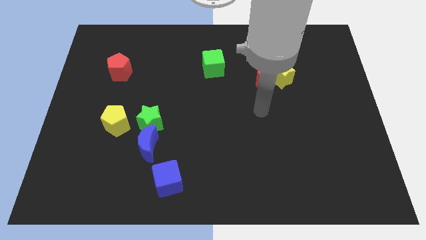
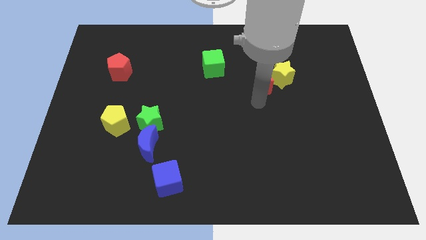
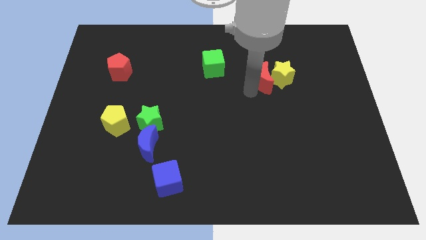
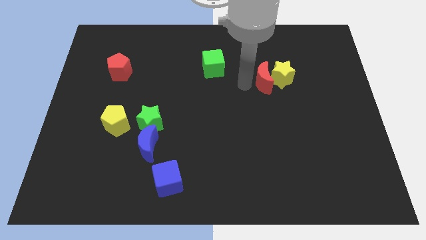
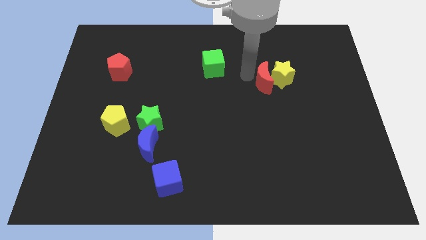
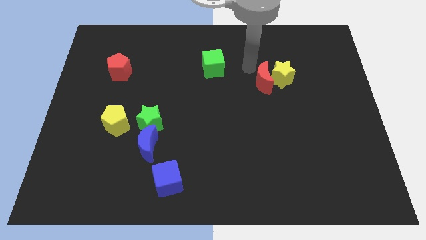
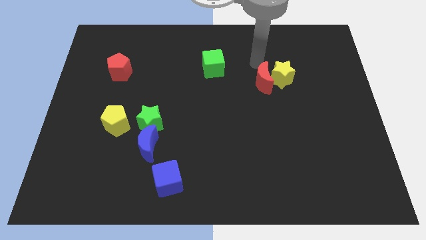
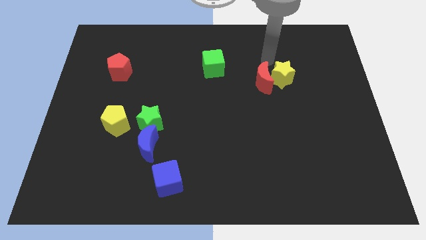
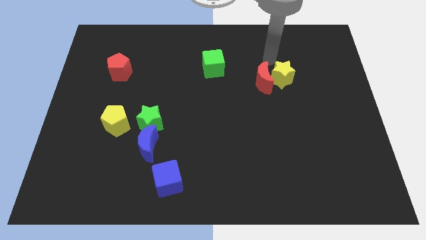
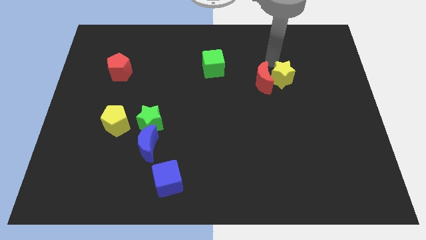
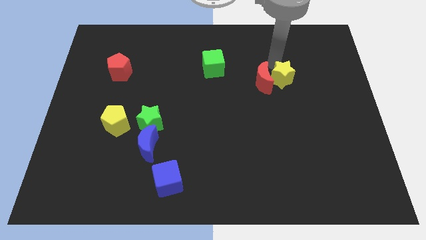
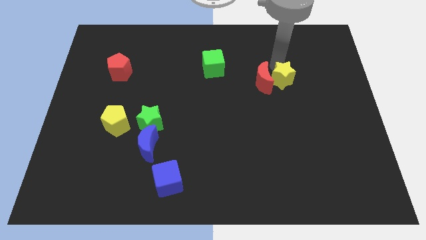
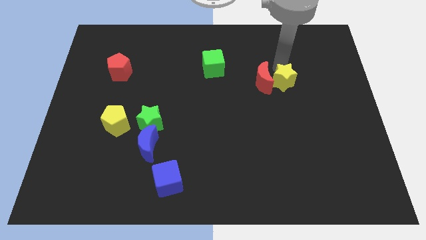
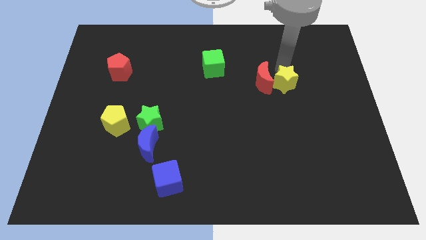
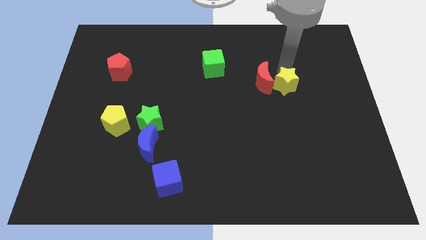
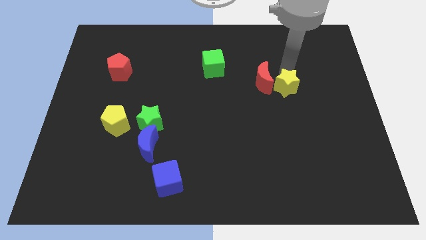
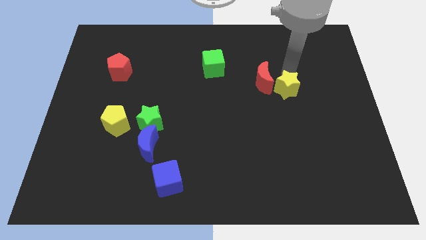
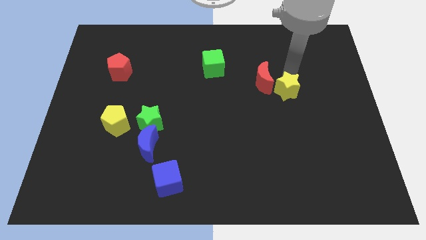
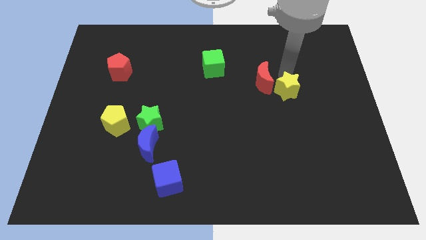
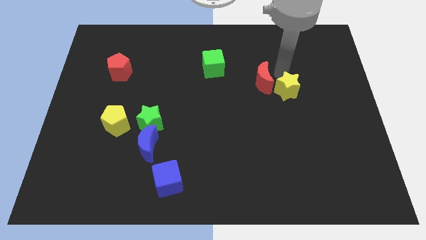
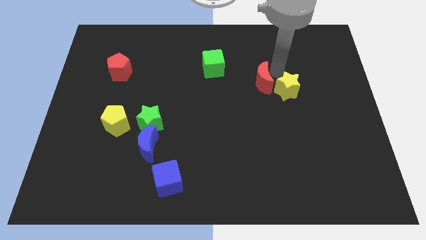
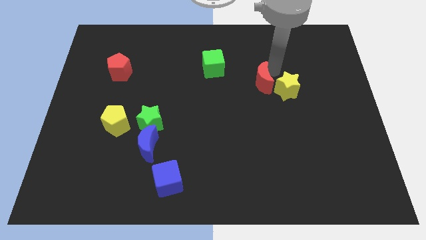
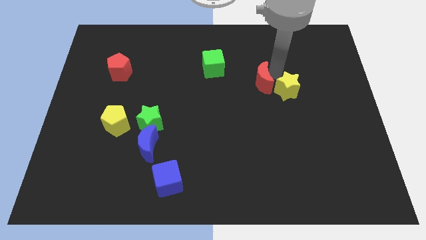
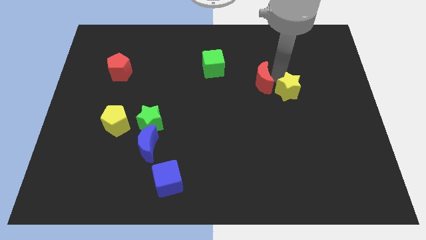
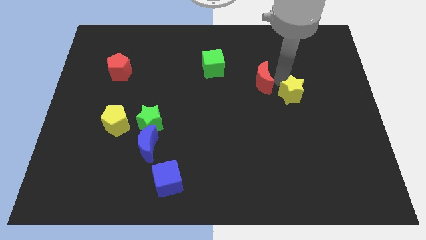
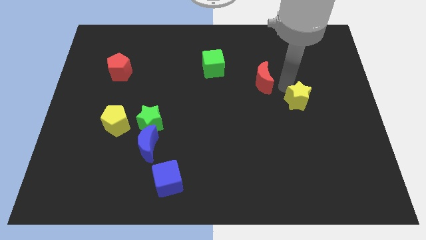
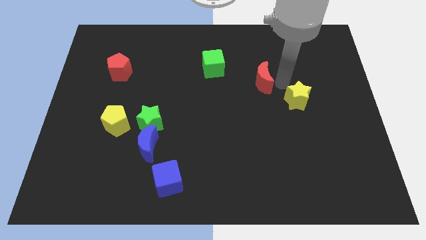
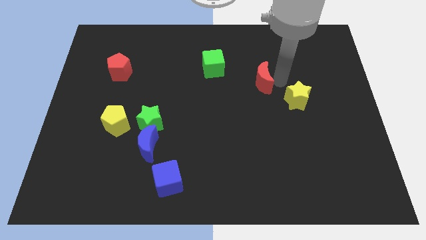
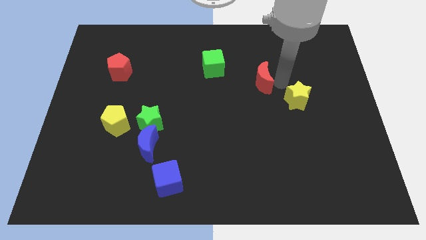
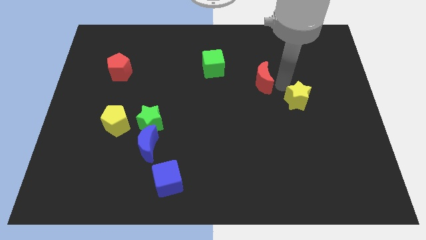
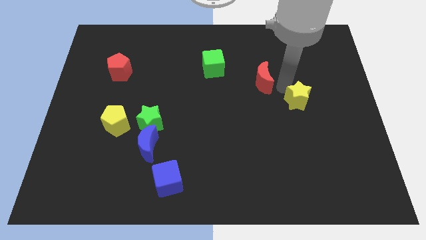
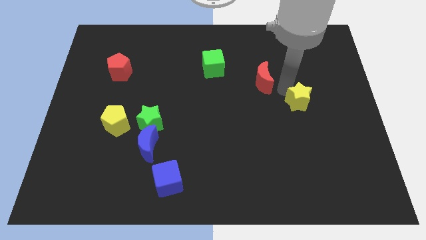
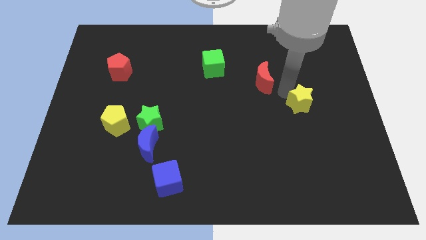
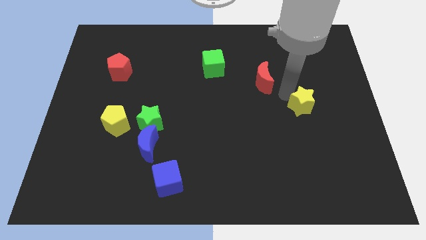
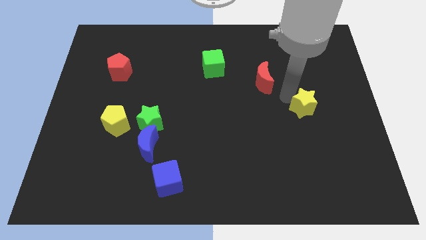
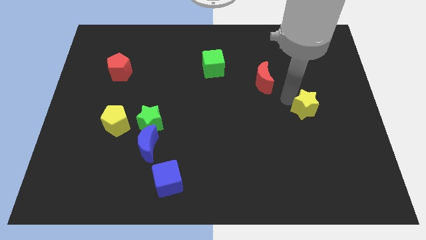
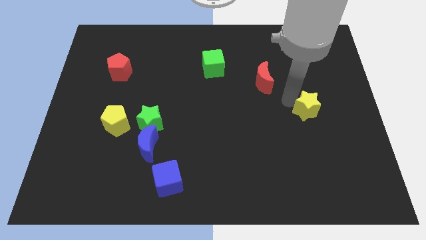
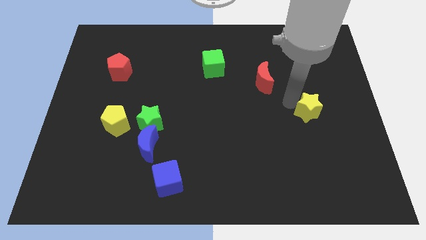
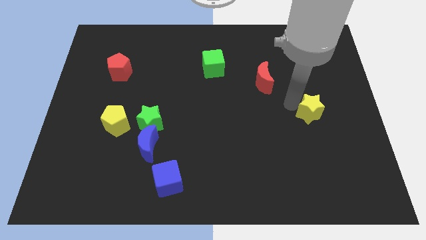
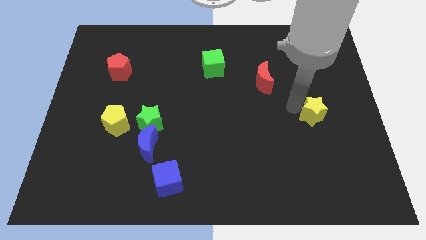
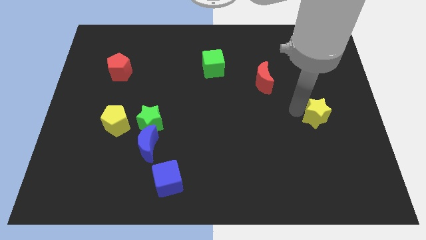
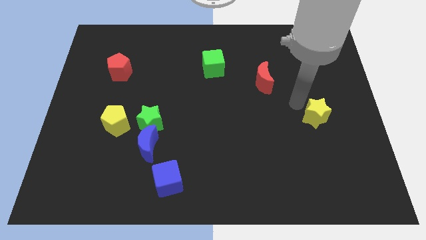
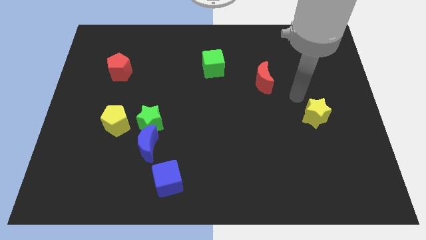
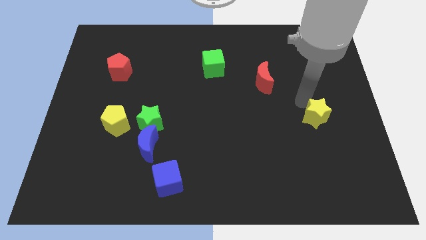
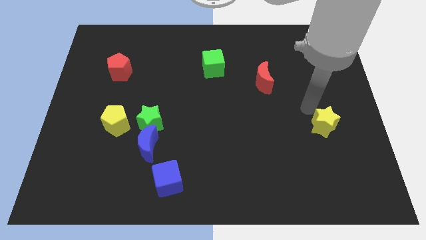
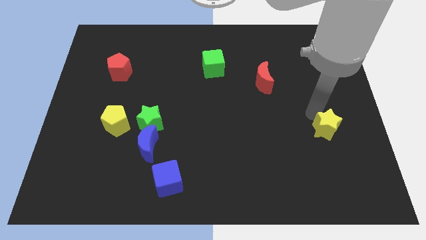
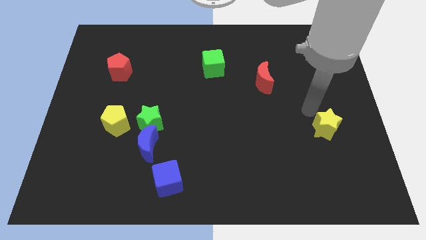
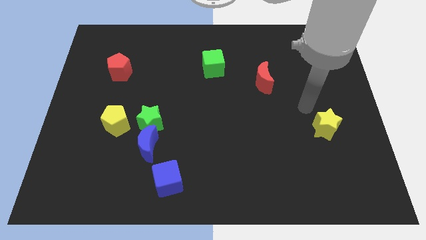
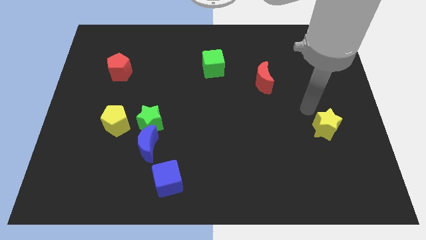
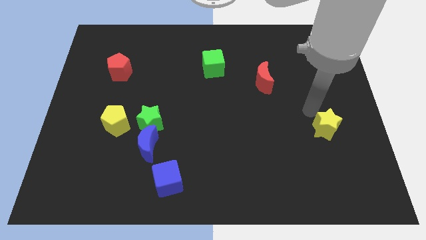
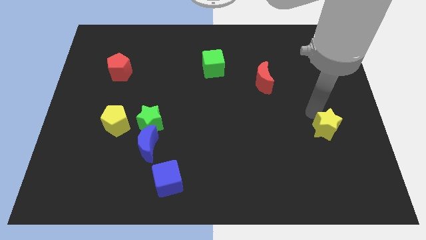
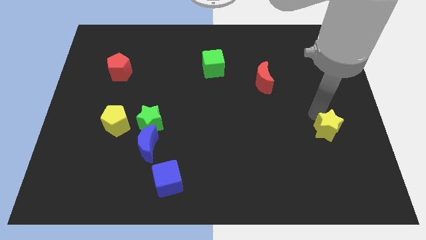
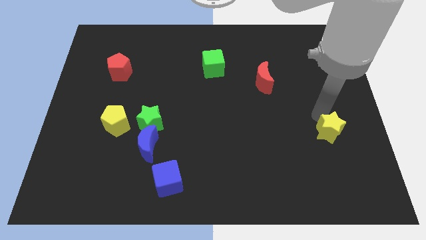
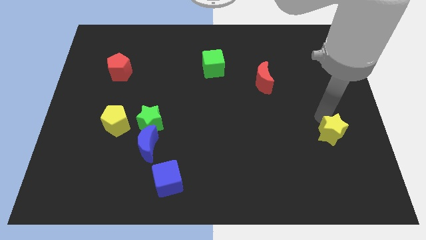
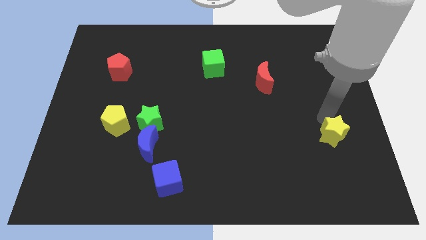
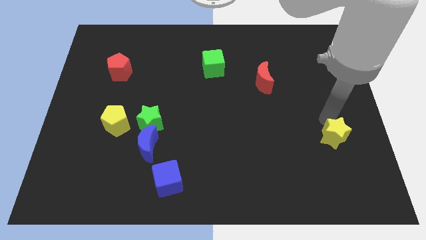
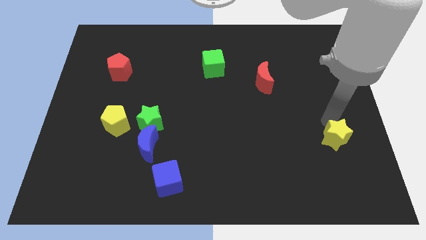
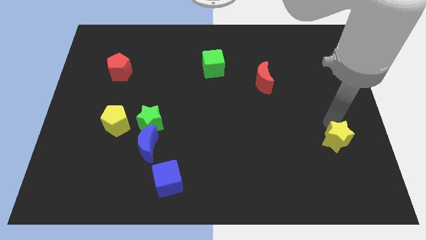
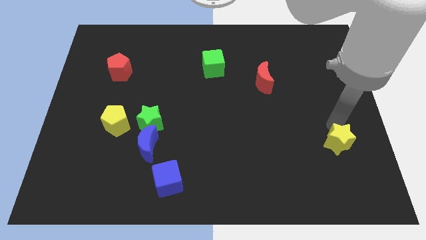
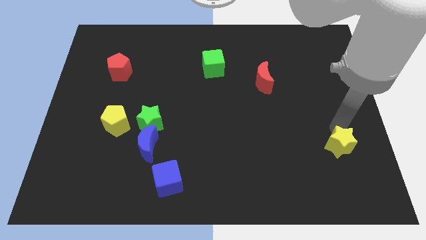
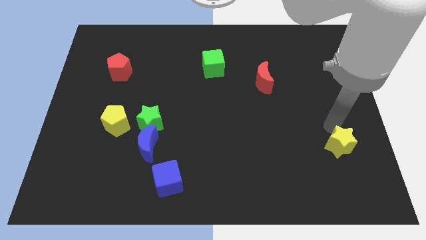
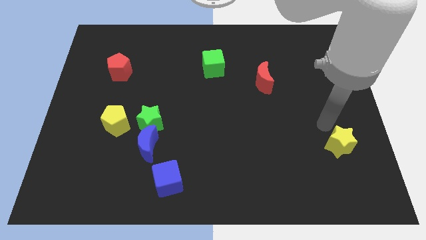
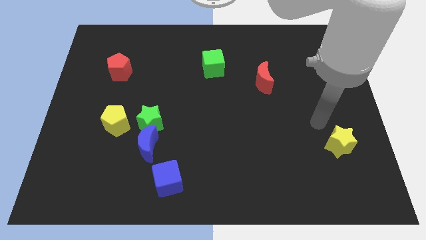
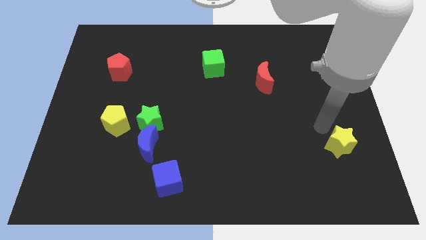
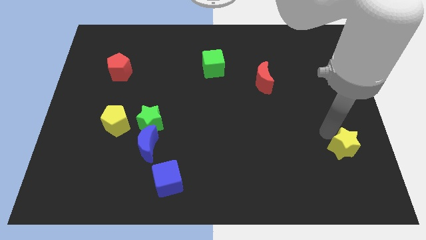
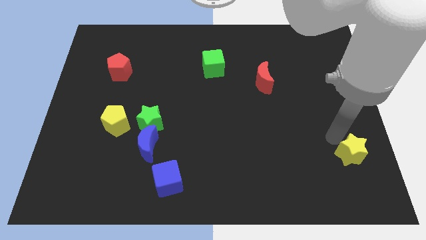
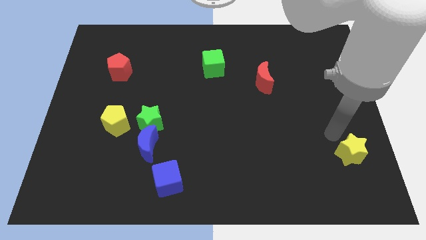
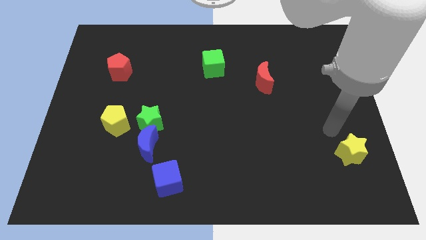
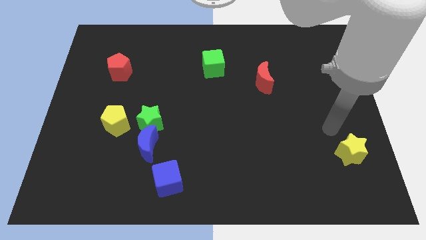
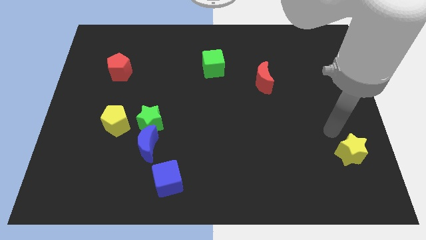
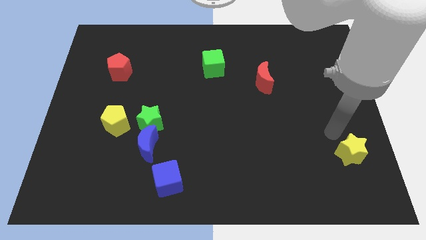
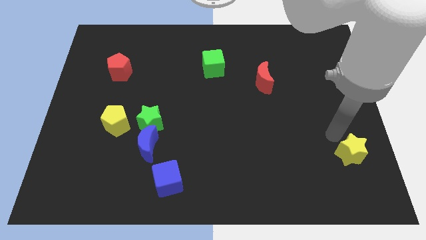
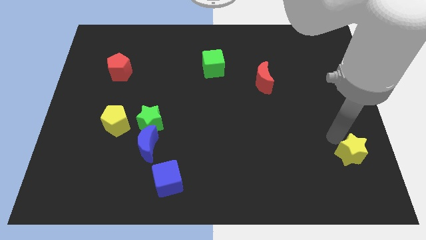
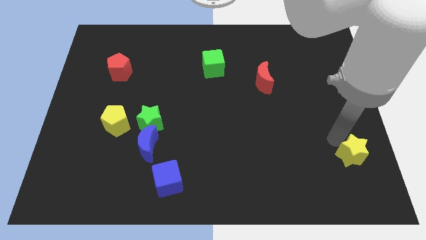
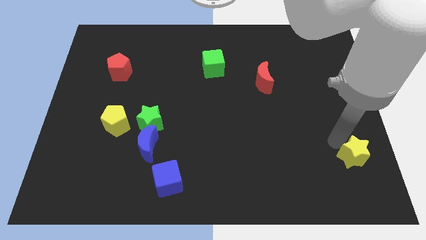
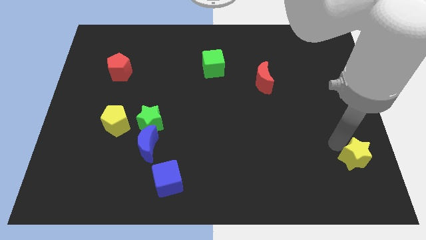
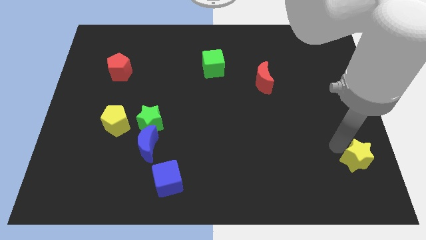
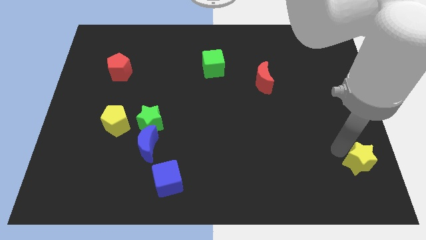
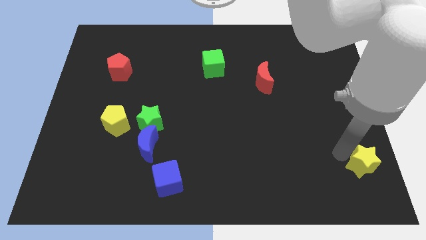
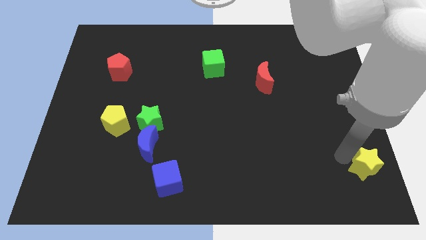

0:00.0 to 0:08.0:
put the yellow star to the bottom right
